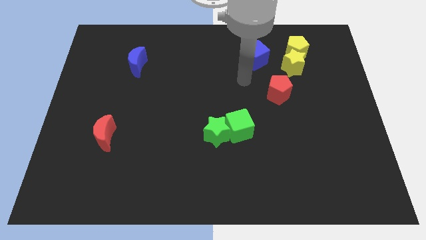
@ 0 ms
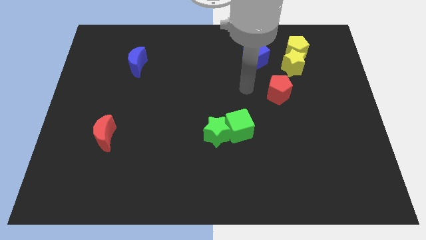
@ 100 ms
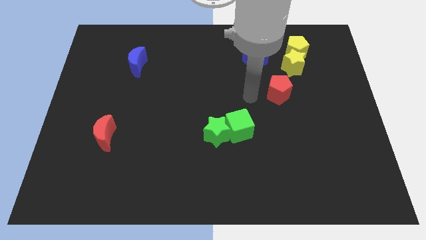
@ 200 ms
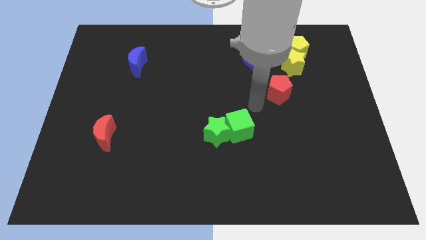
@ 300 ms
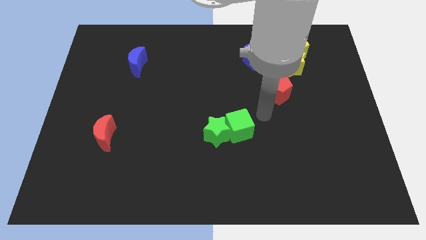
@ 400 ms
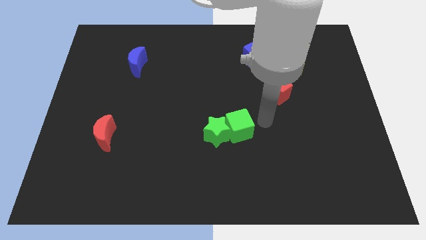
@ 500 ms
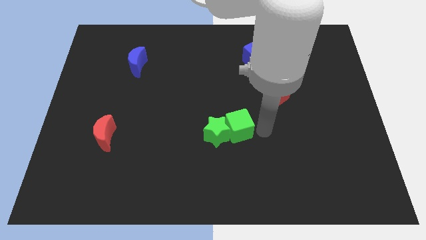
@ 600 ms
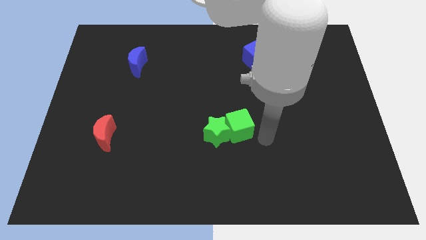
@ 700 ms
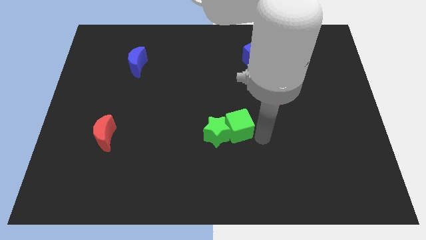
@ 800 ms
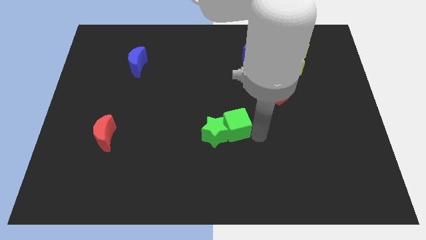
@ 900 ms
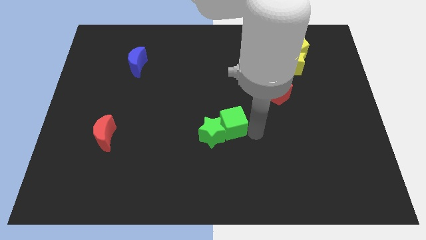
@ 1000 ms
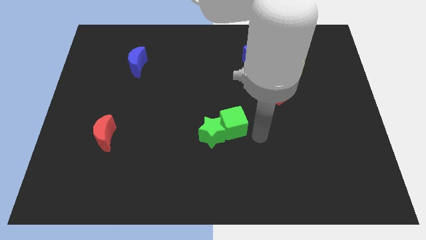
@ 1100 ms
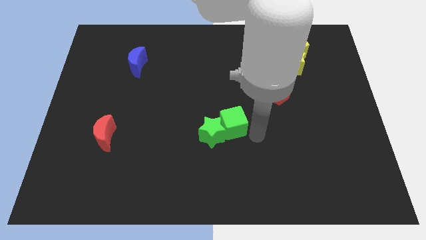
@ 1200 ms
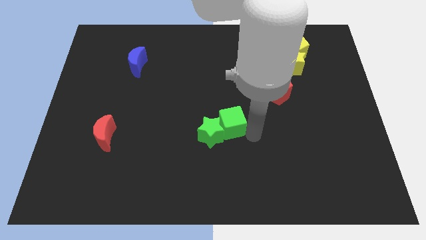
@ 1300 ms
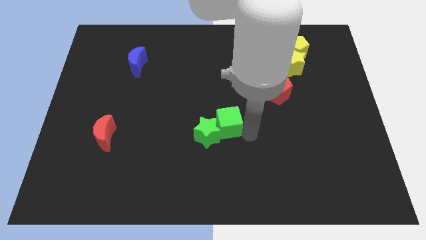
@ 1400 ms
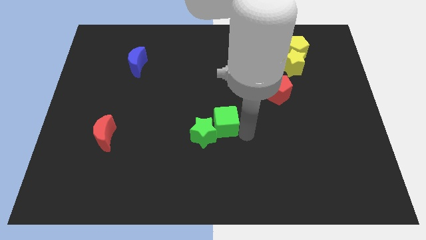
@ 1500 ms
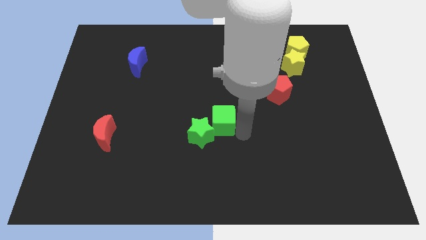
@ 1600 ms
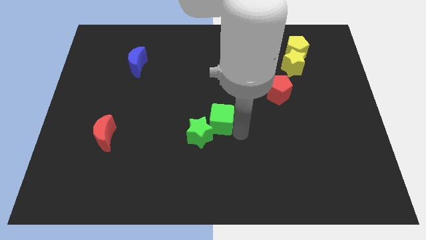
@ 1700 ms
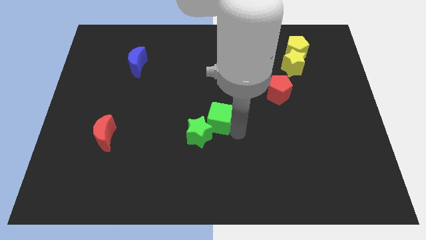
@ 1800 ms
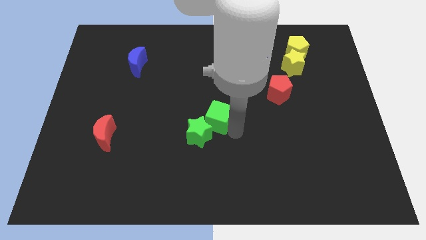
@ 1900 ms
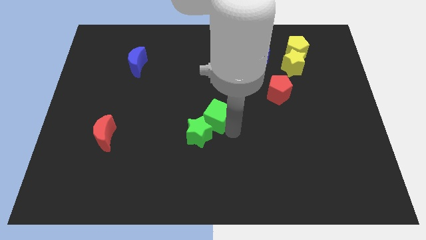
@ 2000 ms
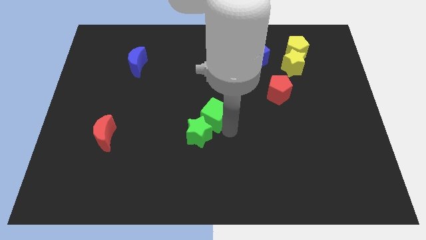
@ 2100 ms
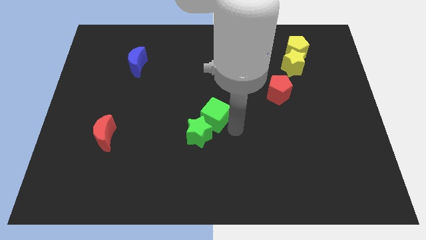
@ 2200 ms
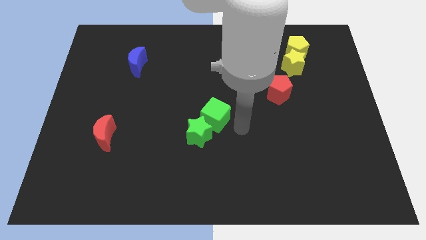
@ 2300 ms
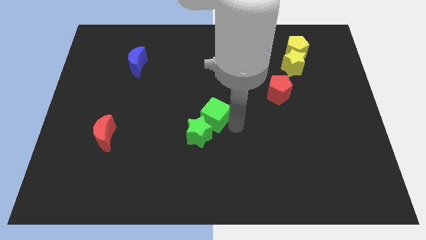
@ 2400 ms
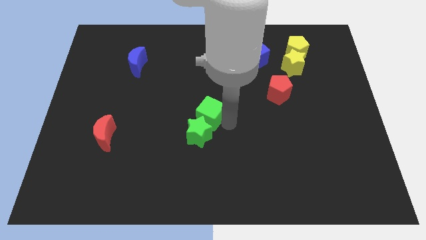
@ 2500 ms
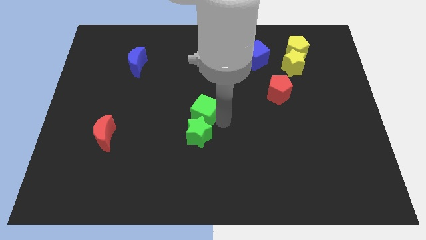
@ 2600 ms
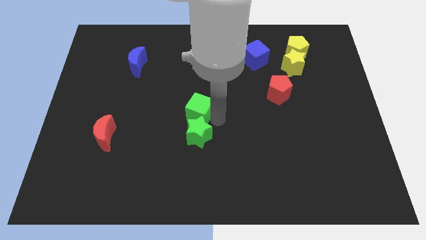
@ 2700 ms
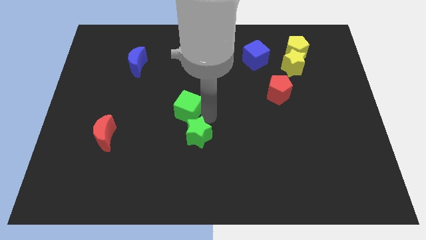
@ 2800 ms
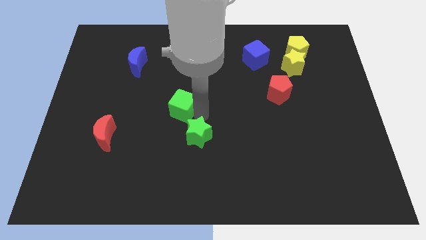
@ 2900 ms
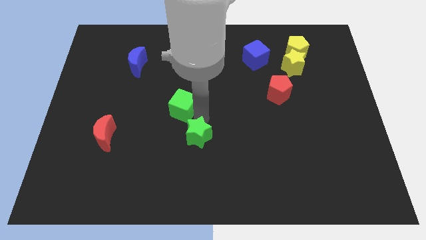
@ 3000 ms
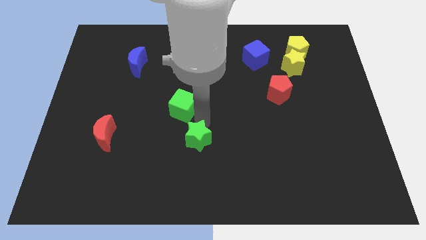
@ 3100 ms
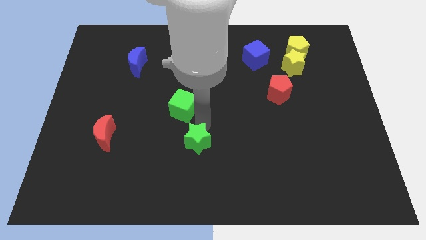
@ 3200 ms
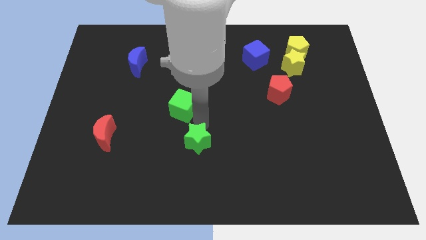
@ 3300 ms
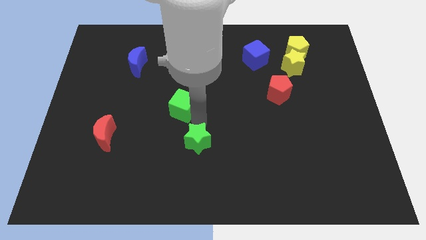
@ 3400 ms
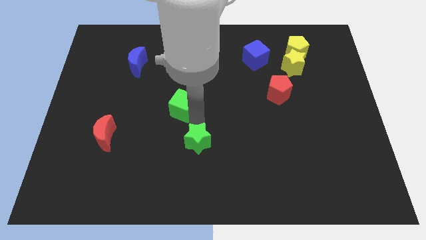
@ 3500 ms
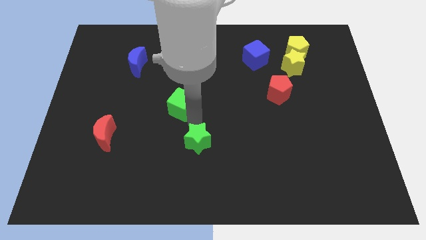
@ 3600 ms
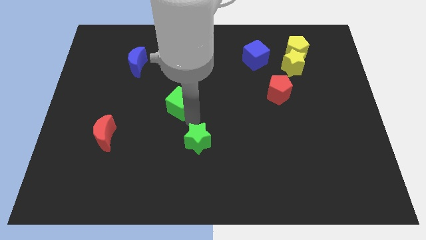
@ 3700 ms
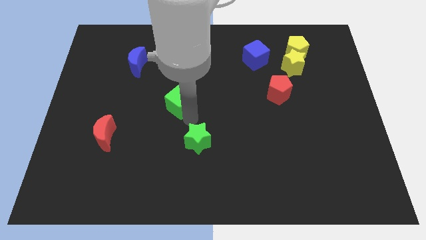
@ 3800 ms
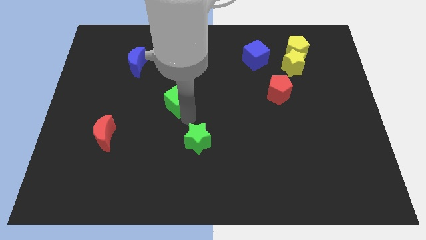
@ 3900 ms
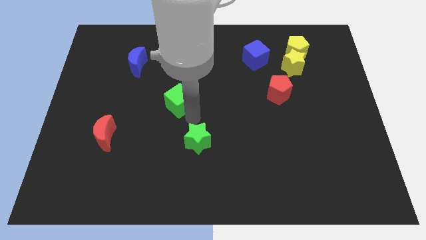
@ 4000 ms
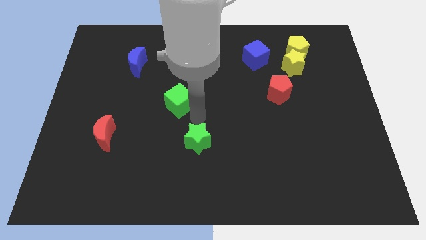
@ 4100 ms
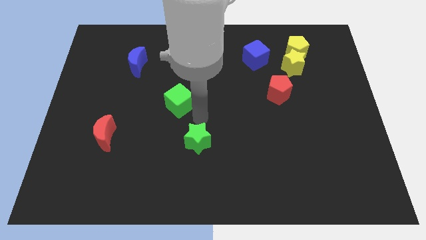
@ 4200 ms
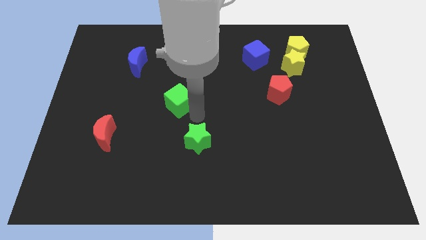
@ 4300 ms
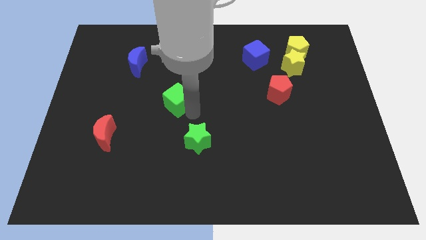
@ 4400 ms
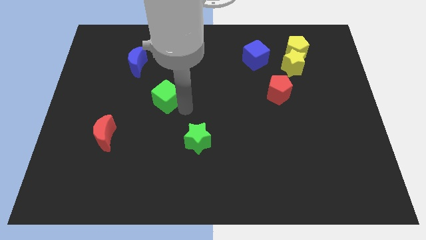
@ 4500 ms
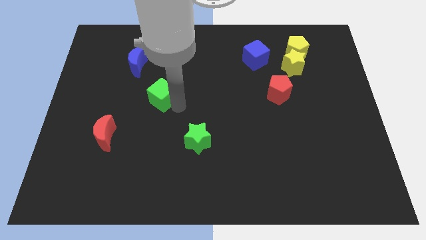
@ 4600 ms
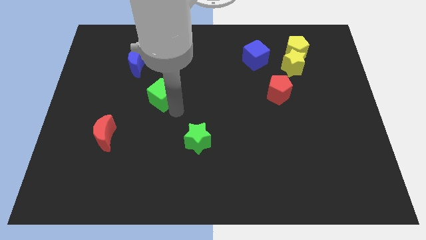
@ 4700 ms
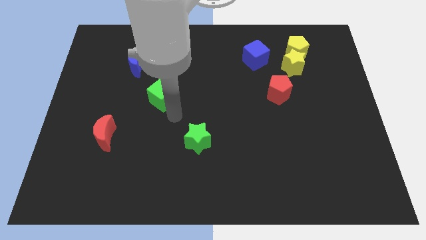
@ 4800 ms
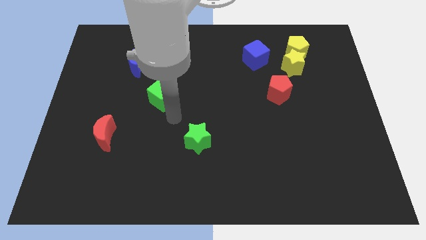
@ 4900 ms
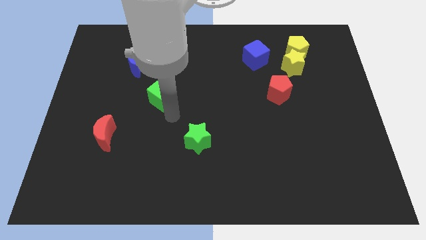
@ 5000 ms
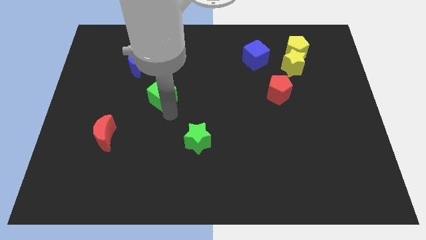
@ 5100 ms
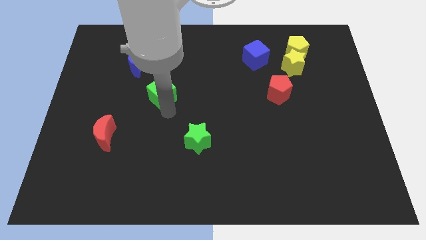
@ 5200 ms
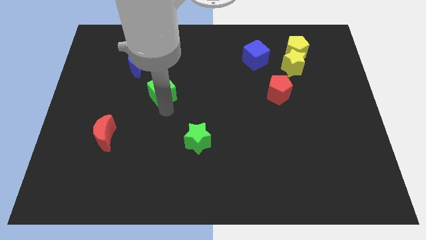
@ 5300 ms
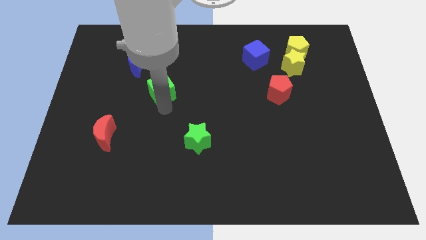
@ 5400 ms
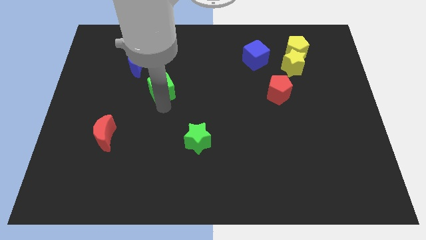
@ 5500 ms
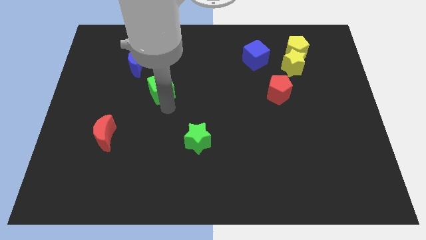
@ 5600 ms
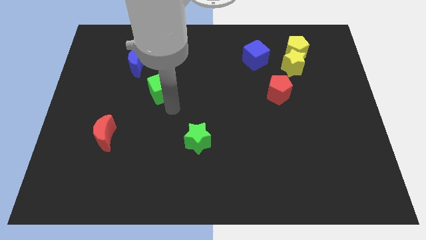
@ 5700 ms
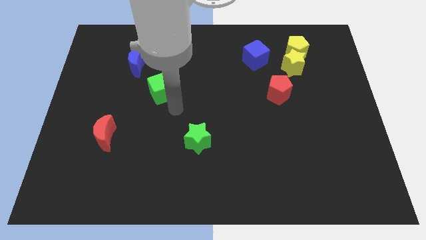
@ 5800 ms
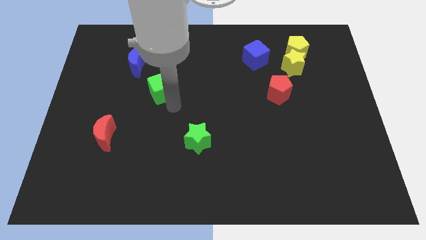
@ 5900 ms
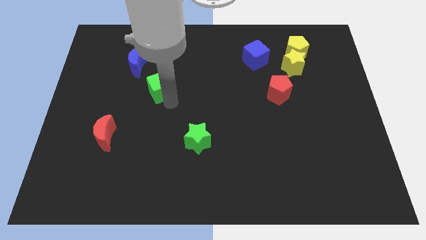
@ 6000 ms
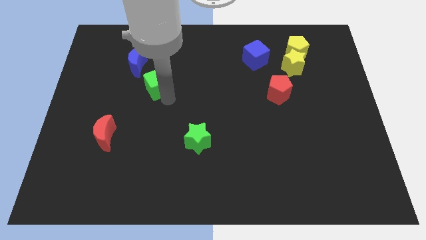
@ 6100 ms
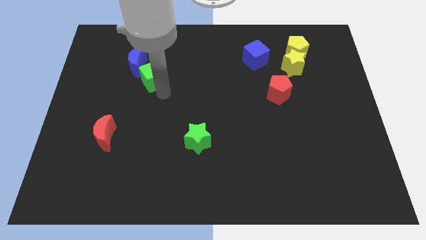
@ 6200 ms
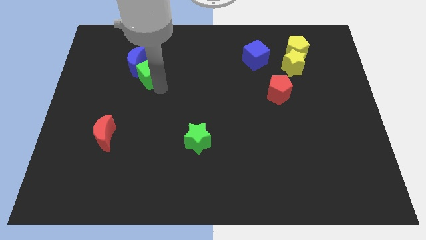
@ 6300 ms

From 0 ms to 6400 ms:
slide the green cube close to the blue moon

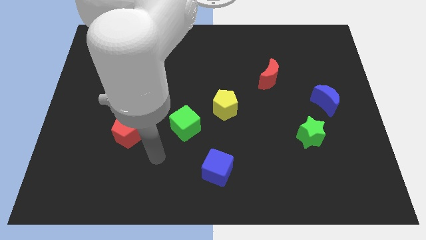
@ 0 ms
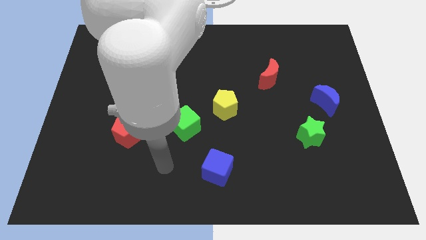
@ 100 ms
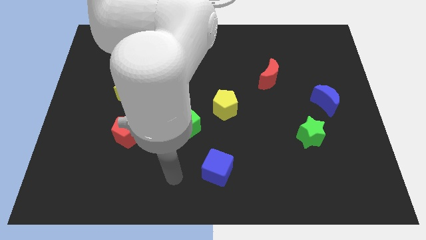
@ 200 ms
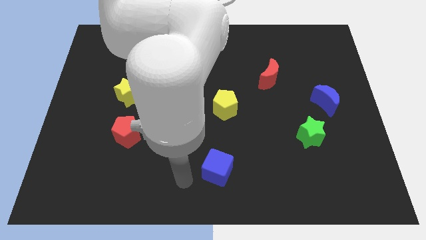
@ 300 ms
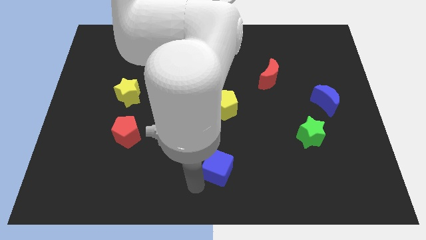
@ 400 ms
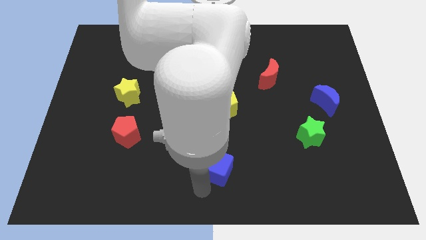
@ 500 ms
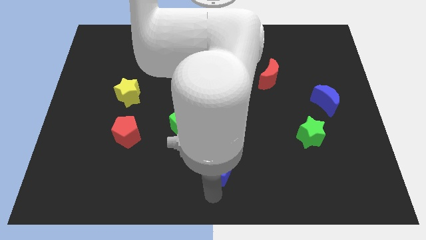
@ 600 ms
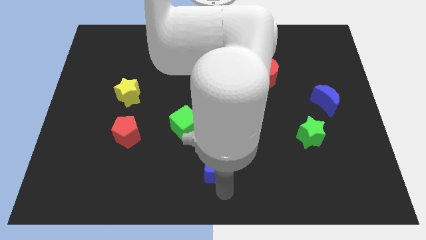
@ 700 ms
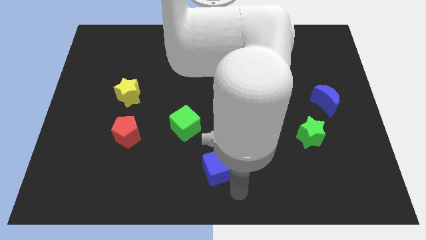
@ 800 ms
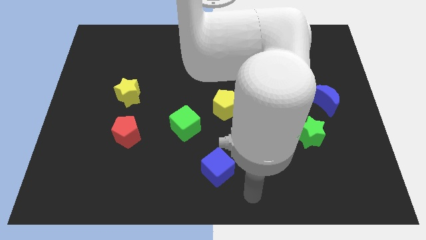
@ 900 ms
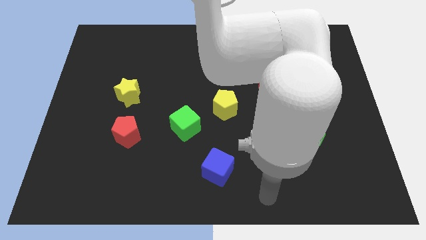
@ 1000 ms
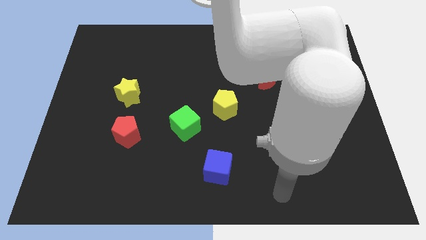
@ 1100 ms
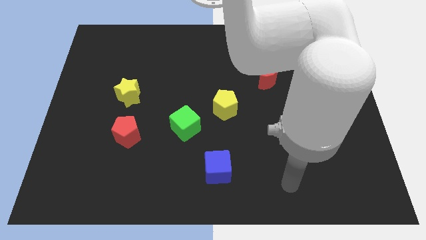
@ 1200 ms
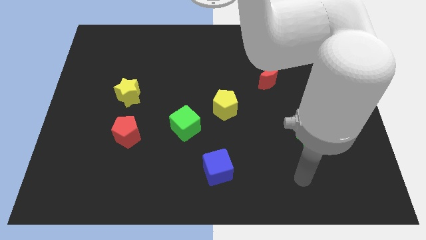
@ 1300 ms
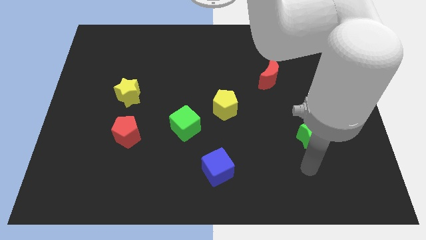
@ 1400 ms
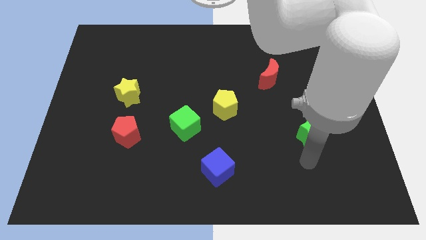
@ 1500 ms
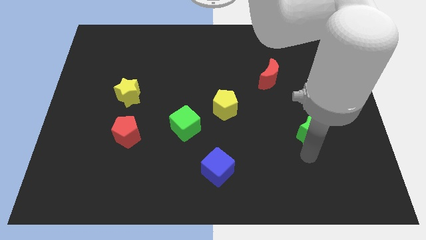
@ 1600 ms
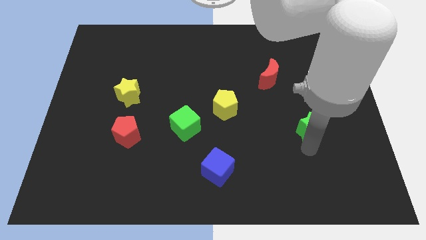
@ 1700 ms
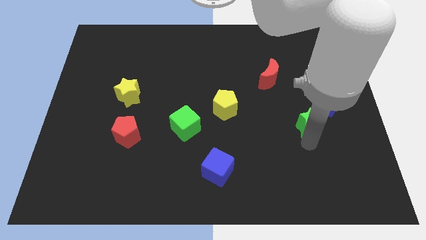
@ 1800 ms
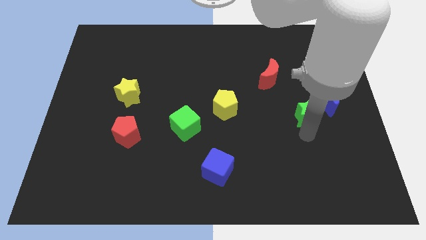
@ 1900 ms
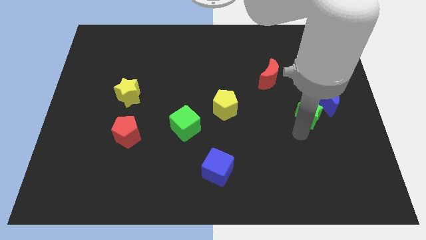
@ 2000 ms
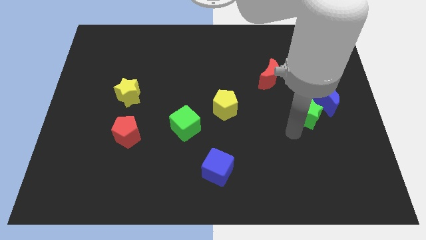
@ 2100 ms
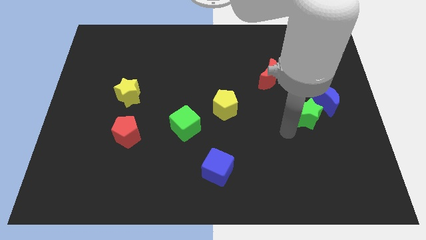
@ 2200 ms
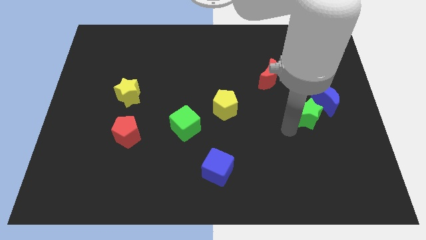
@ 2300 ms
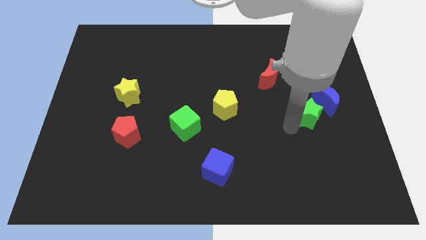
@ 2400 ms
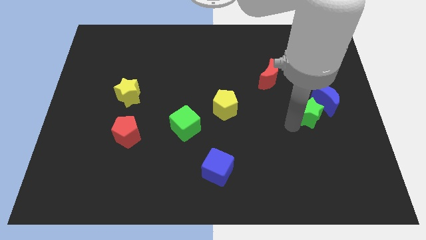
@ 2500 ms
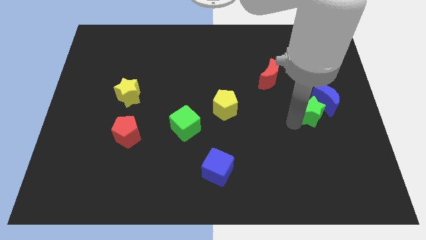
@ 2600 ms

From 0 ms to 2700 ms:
move the green star close to the blue moon
